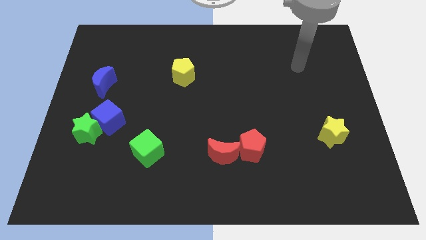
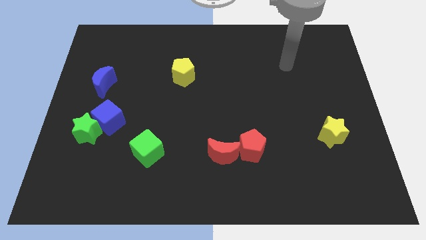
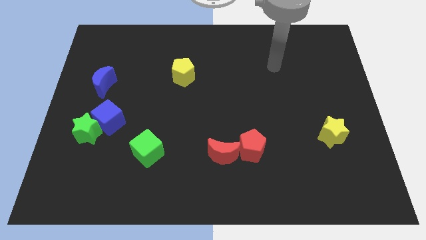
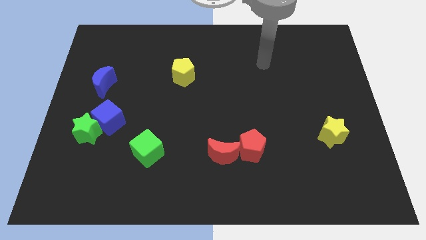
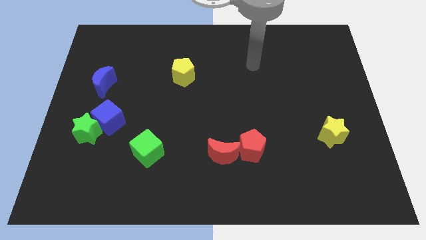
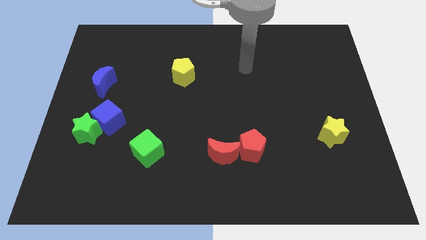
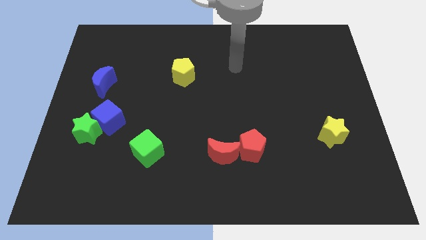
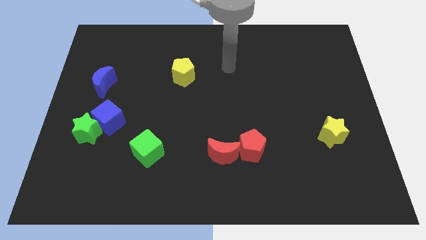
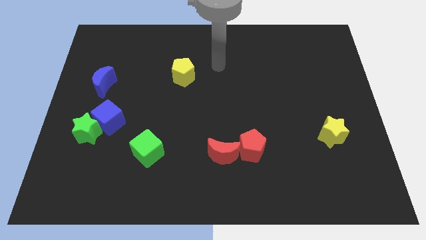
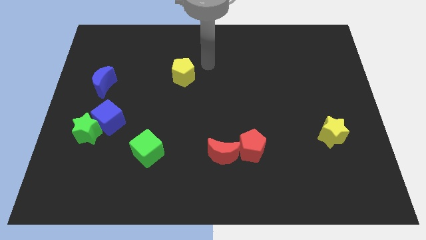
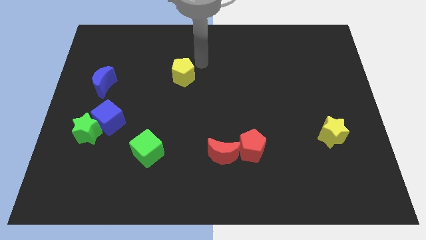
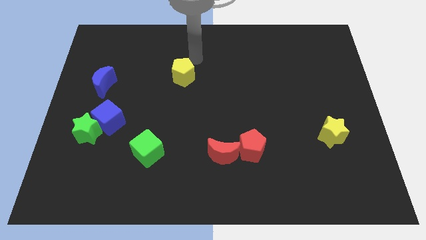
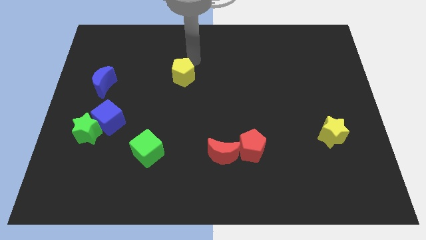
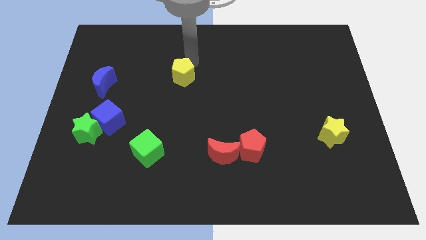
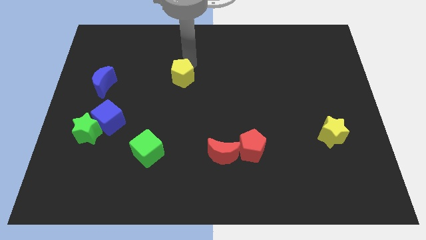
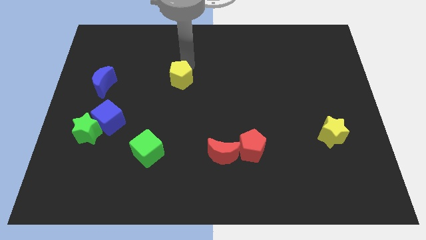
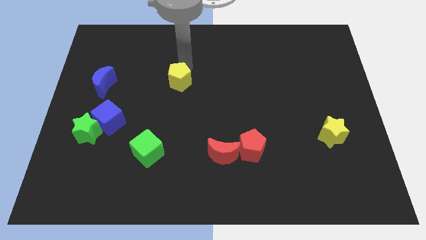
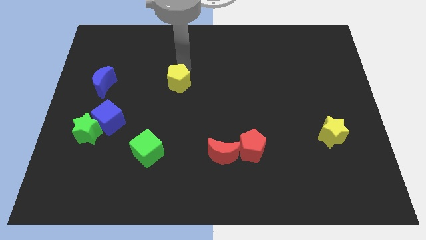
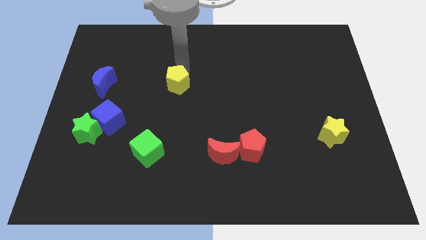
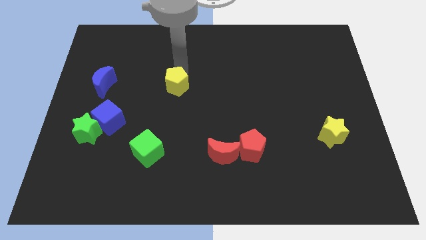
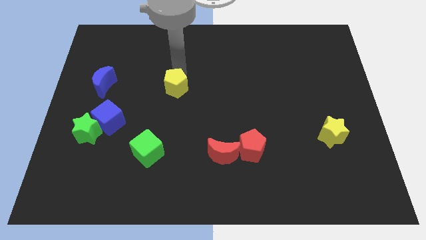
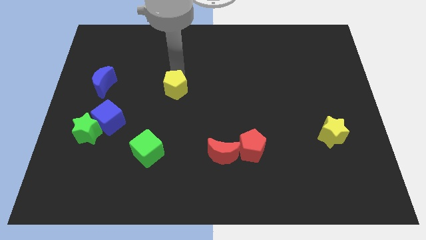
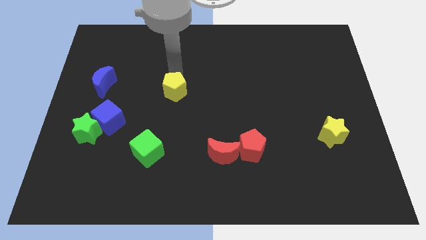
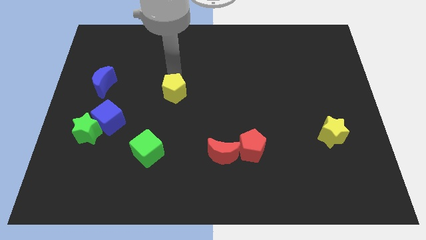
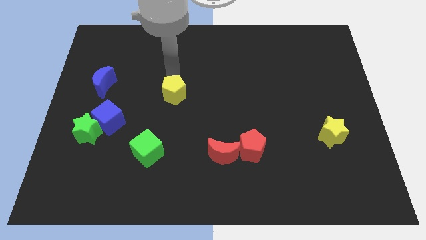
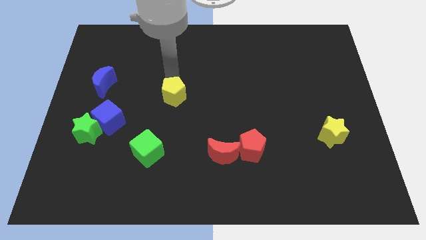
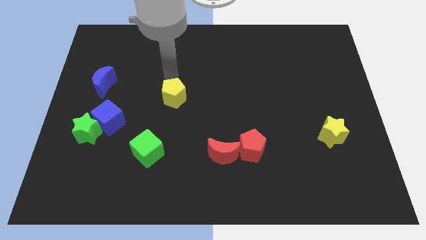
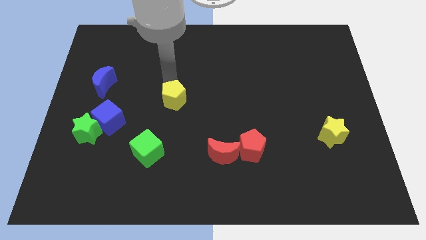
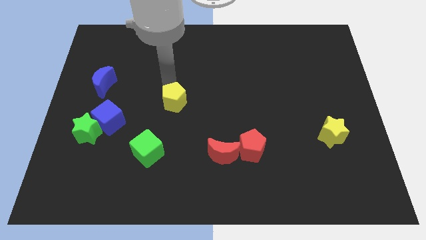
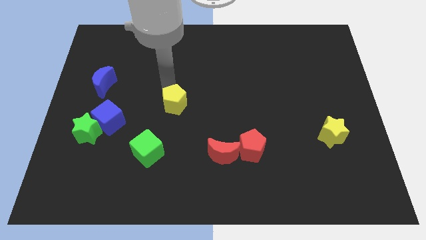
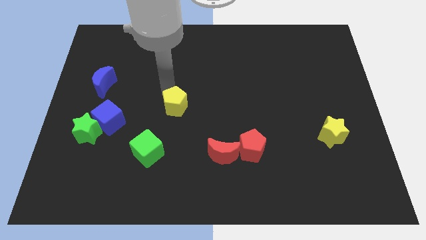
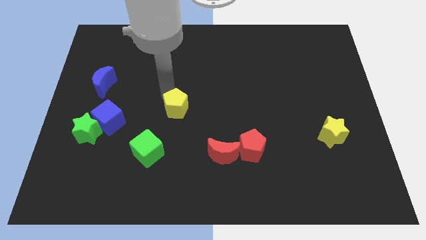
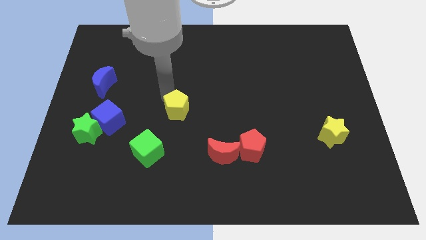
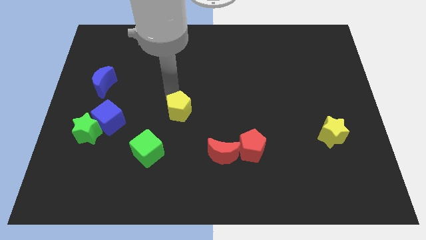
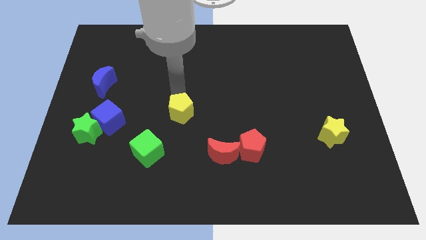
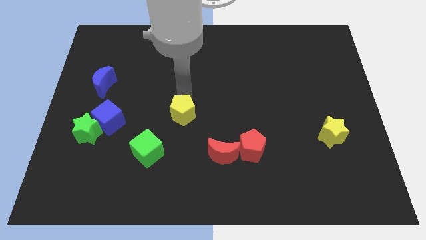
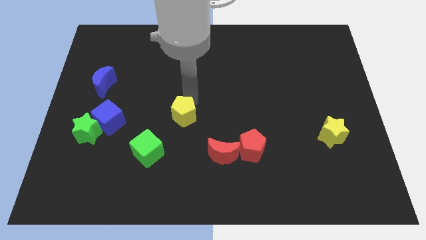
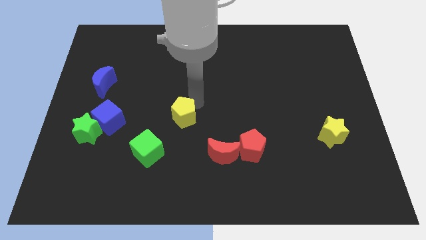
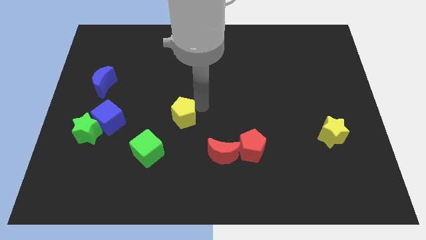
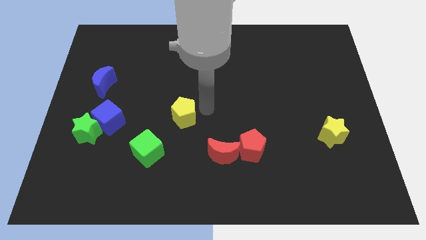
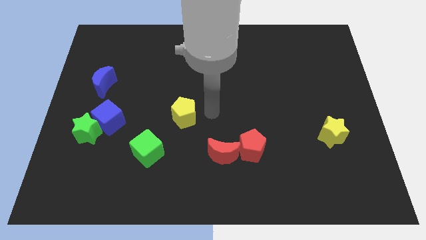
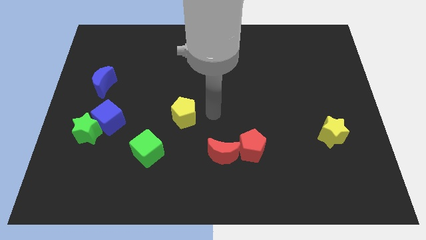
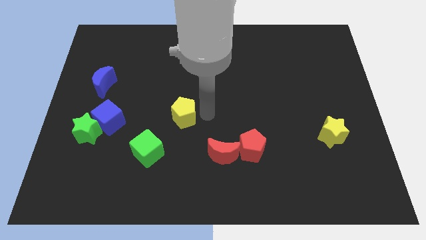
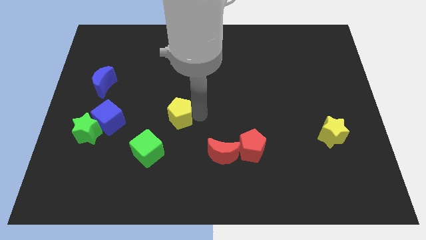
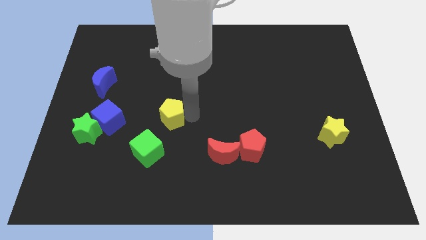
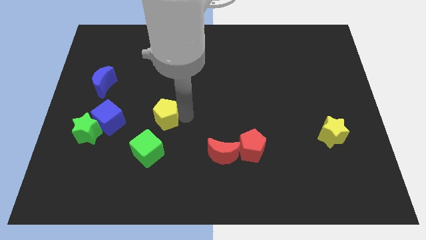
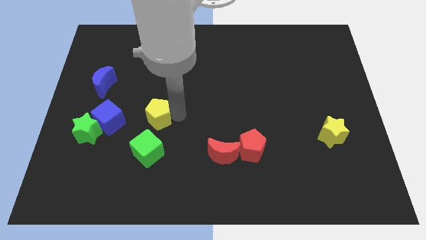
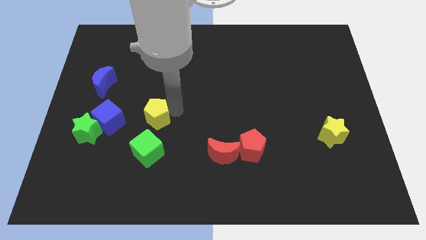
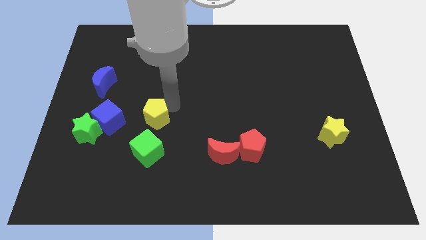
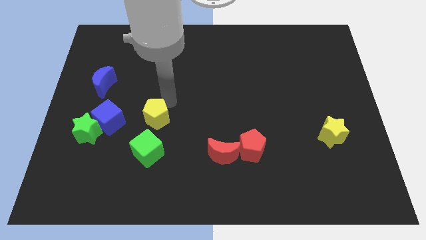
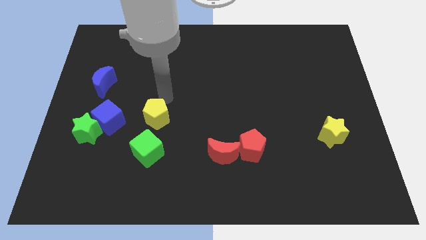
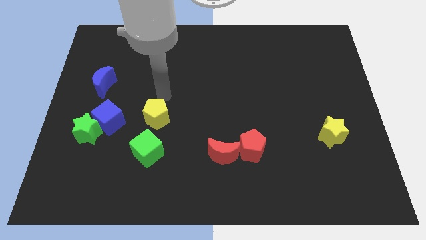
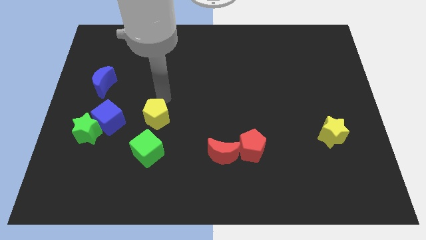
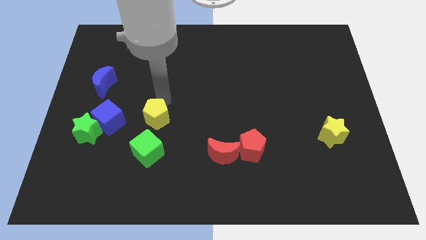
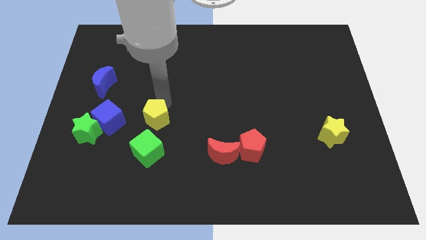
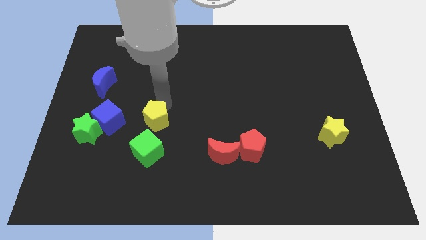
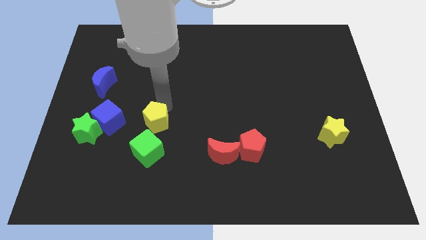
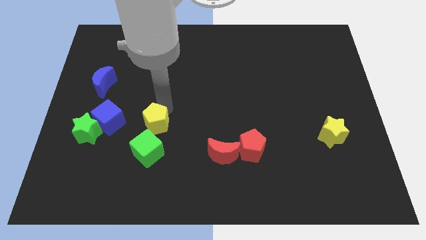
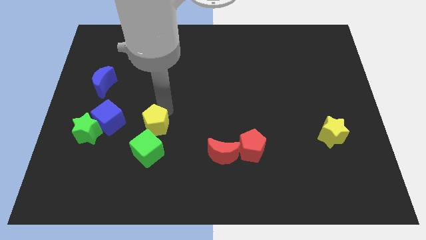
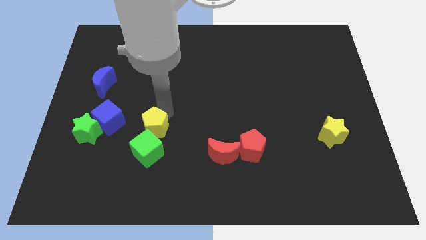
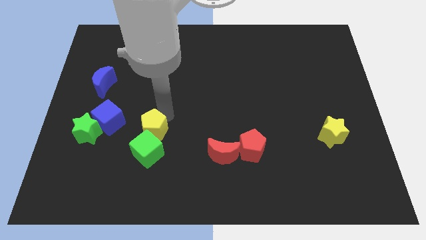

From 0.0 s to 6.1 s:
move the yellow pentagon close to the green cube

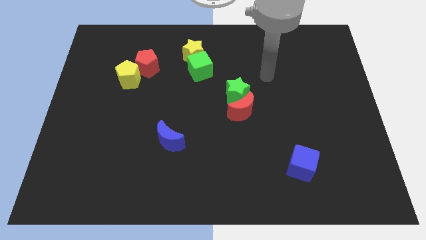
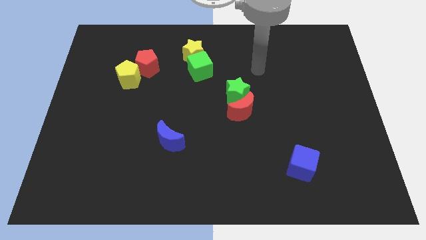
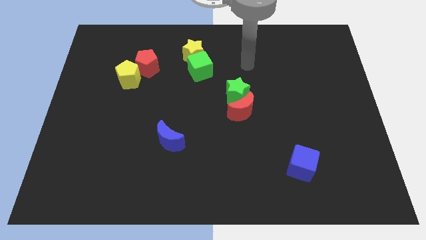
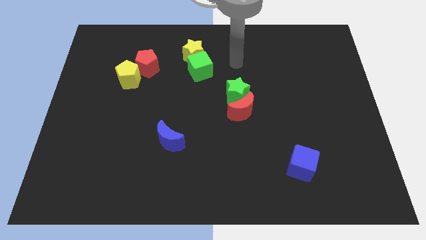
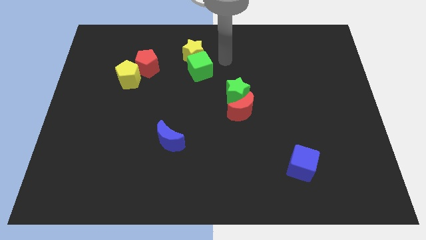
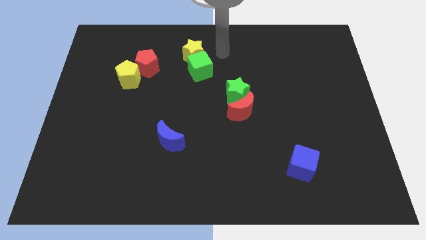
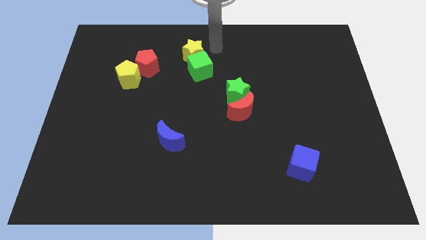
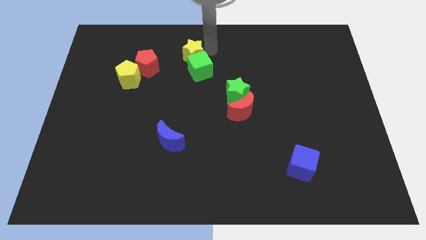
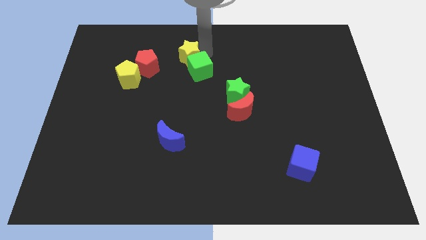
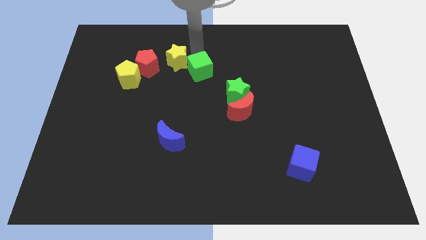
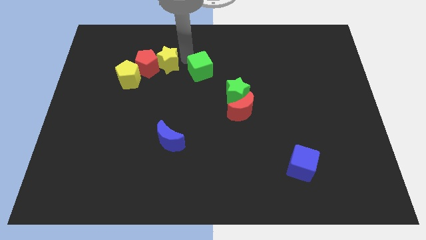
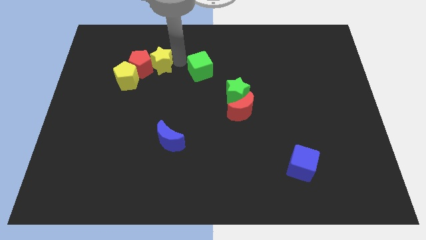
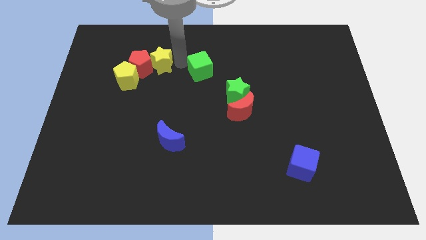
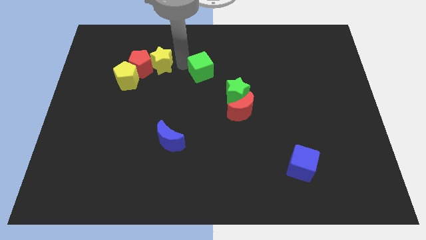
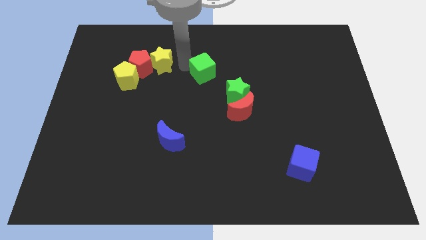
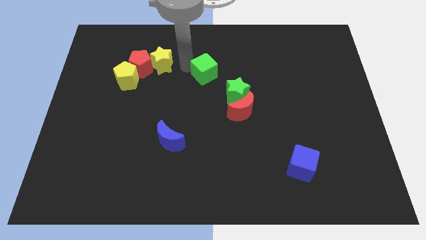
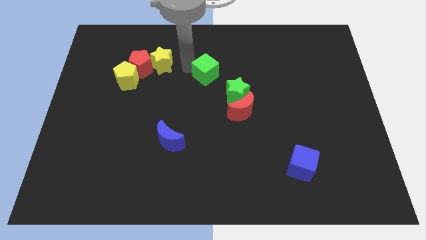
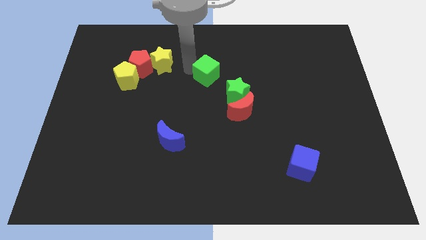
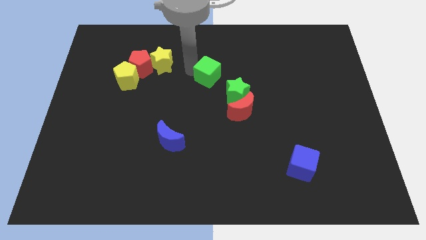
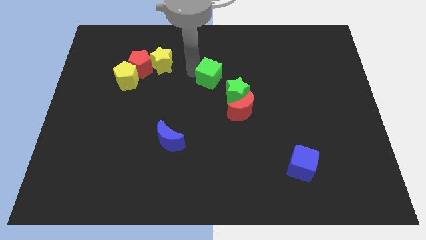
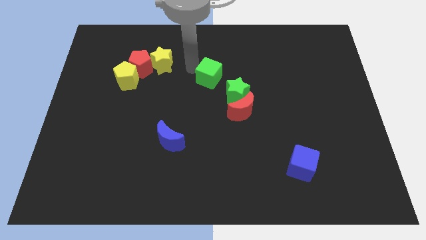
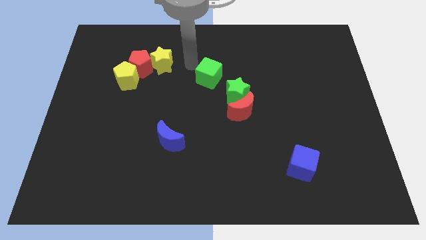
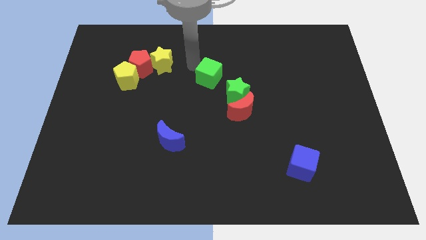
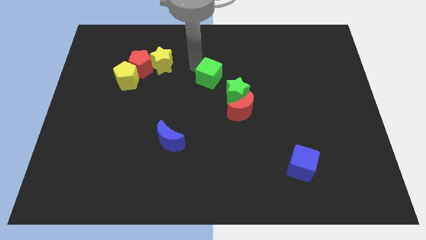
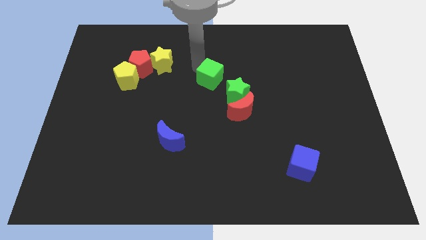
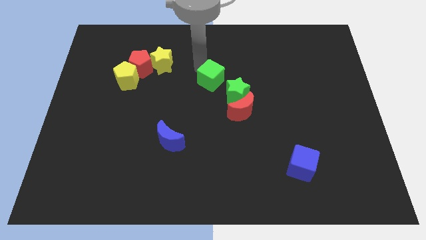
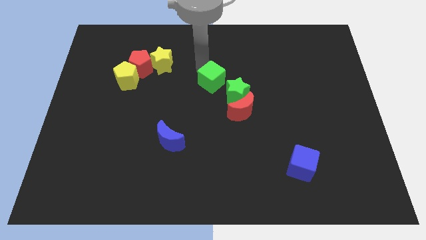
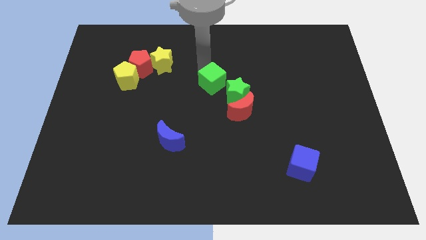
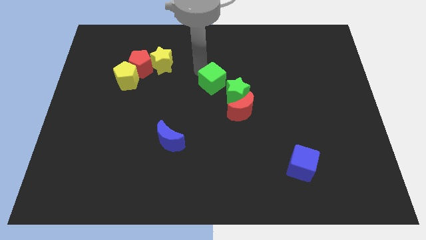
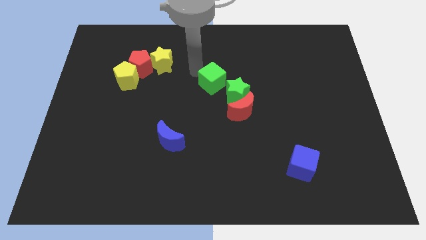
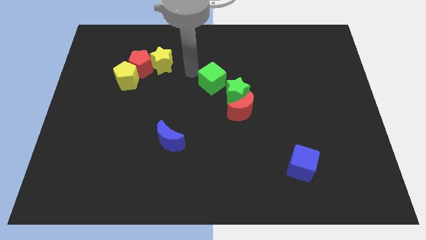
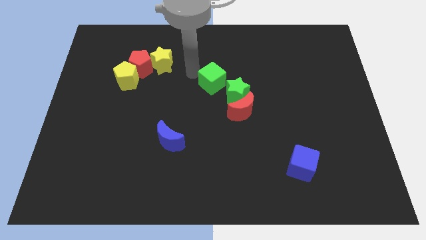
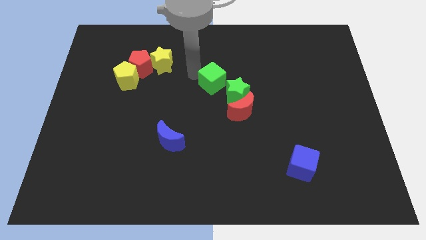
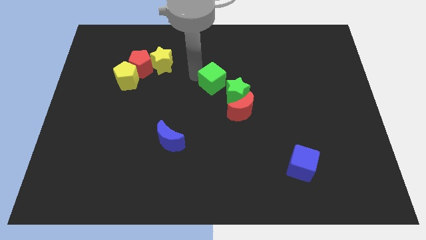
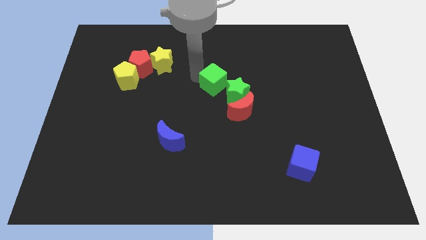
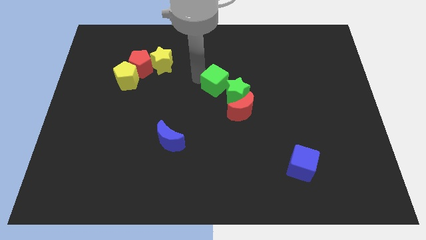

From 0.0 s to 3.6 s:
move the green cube close to the green star
